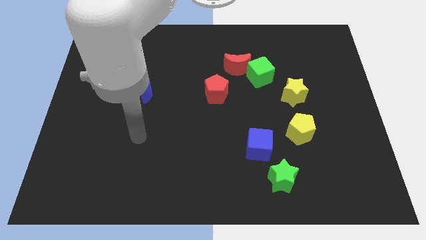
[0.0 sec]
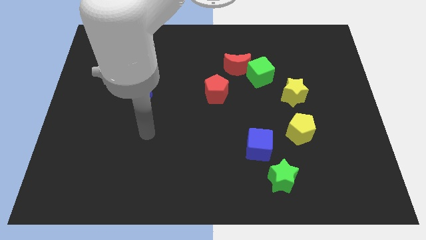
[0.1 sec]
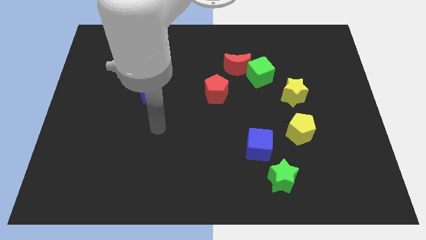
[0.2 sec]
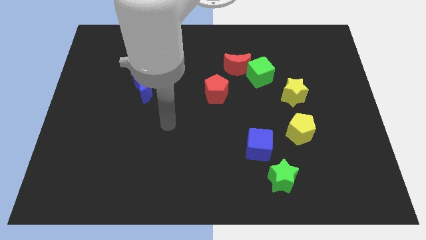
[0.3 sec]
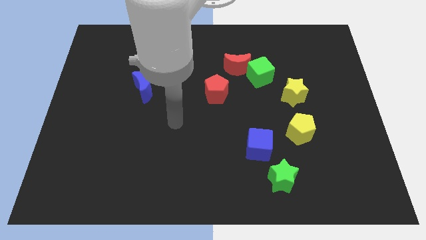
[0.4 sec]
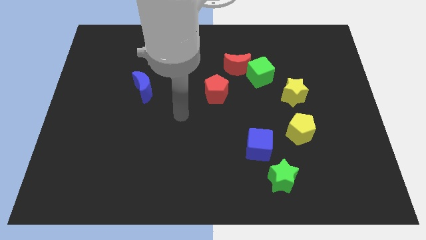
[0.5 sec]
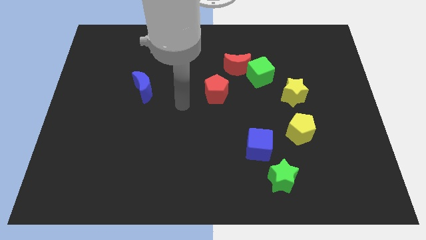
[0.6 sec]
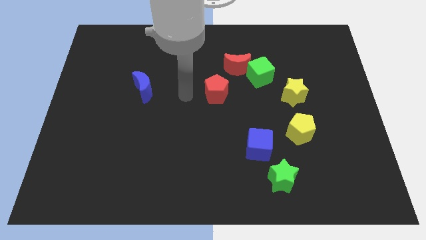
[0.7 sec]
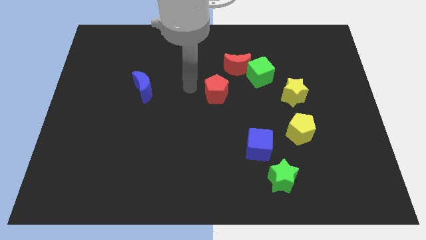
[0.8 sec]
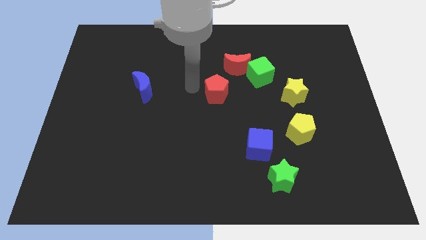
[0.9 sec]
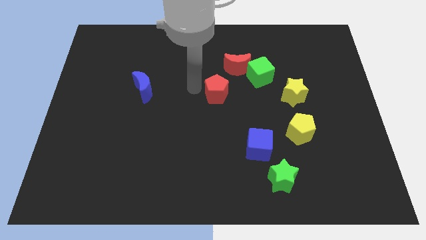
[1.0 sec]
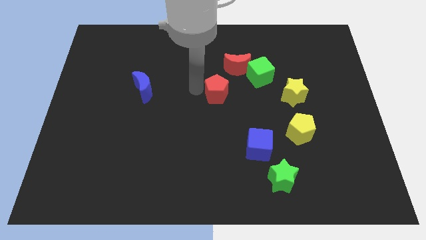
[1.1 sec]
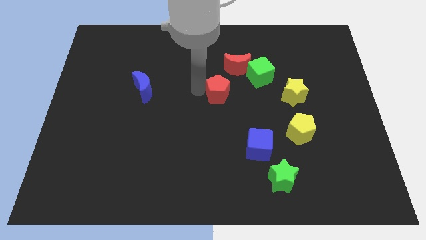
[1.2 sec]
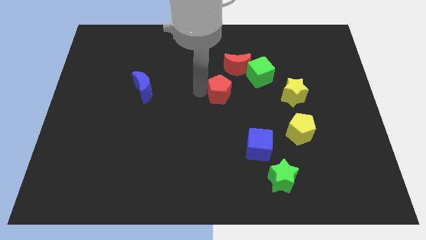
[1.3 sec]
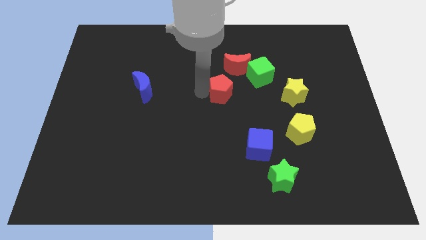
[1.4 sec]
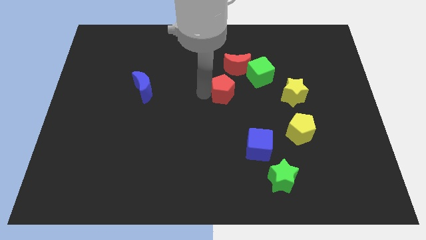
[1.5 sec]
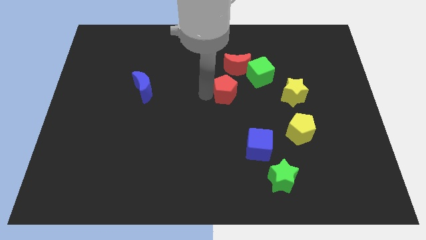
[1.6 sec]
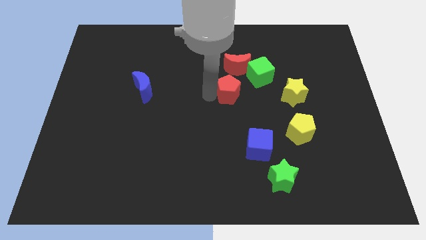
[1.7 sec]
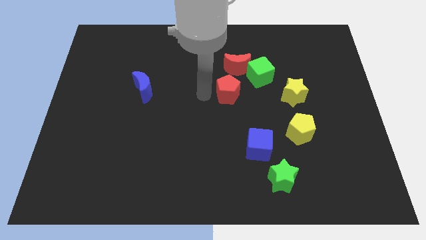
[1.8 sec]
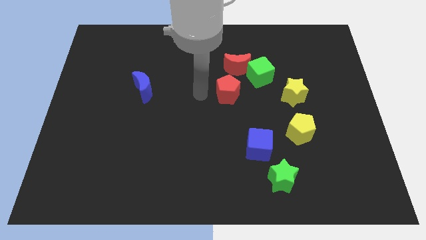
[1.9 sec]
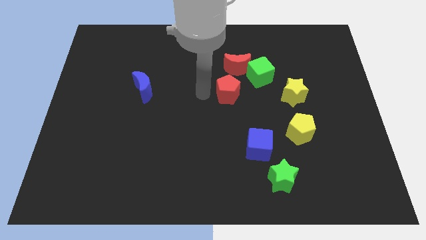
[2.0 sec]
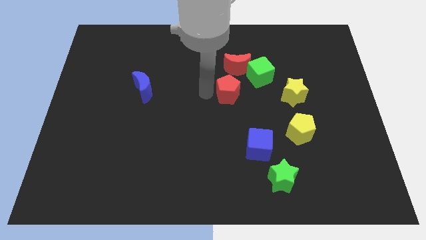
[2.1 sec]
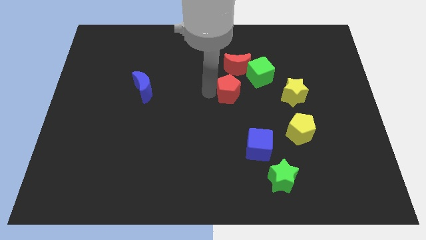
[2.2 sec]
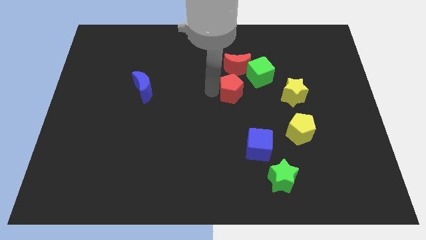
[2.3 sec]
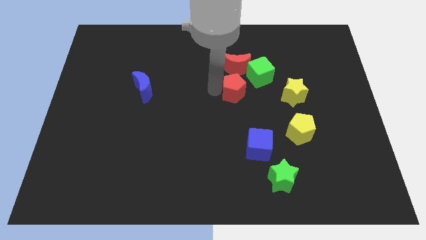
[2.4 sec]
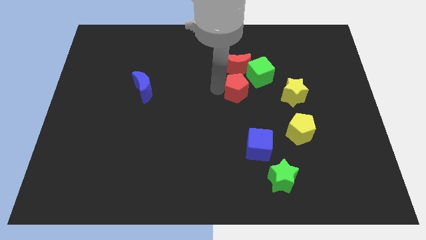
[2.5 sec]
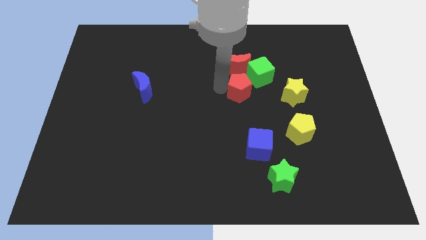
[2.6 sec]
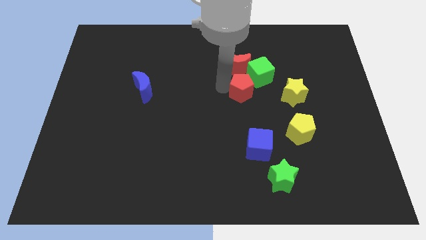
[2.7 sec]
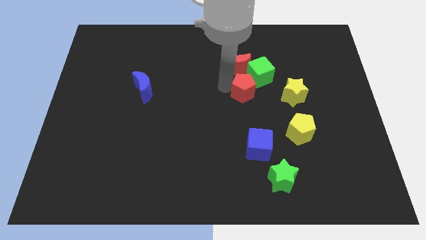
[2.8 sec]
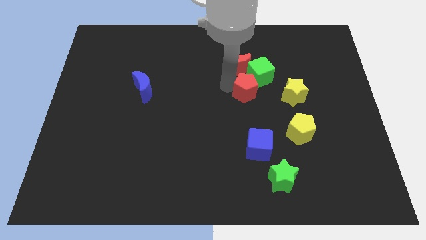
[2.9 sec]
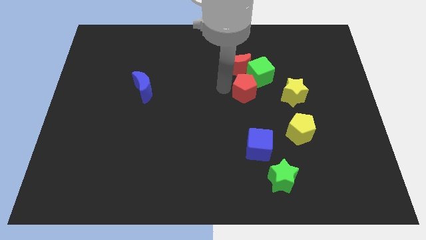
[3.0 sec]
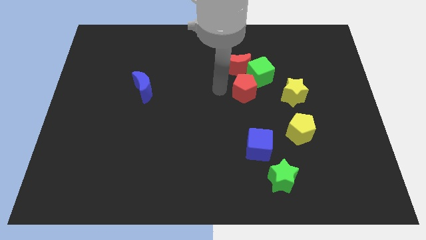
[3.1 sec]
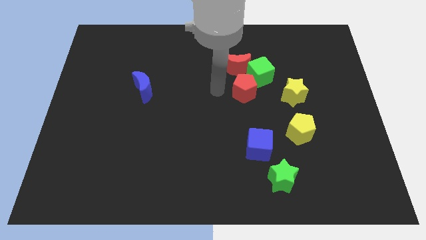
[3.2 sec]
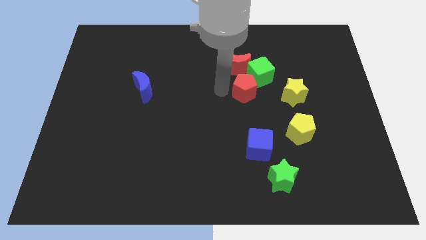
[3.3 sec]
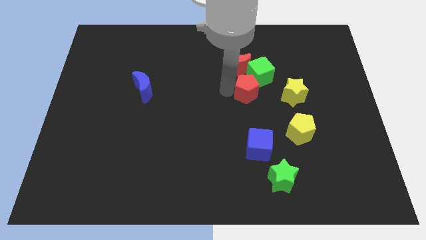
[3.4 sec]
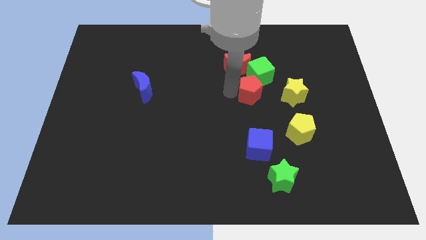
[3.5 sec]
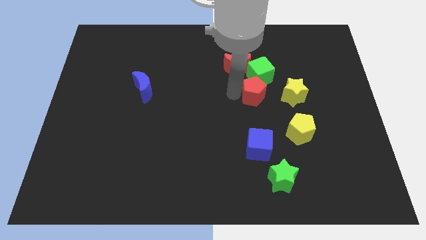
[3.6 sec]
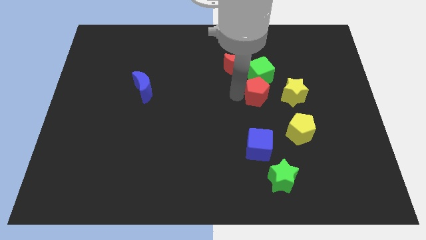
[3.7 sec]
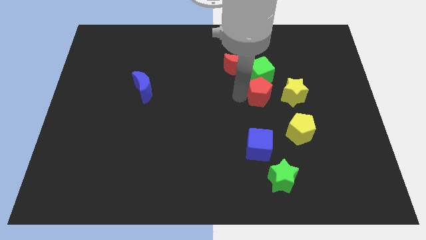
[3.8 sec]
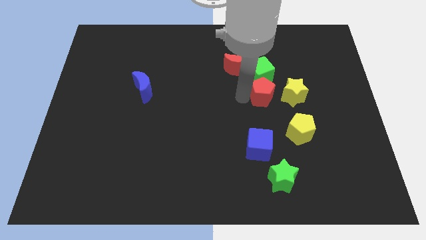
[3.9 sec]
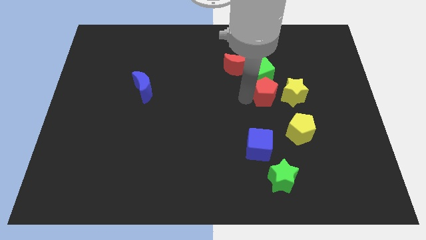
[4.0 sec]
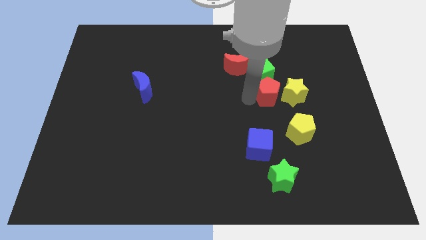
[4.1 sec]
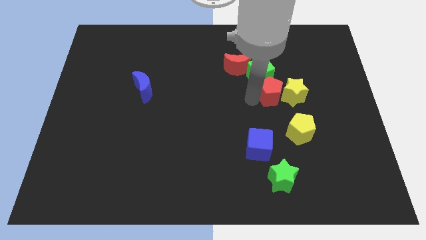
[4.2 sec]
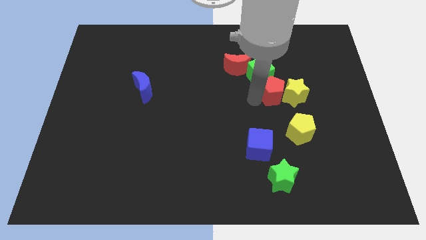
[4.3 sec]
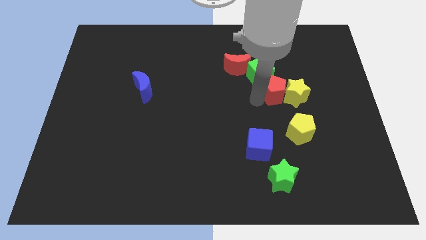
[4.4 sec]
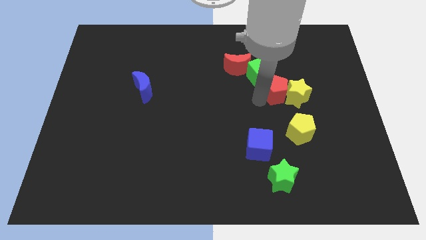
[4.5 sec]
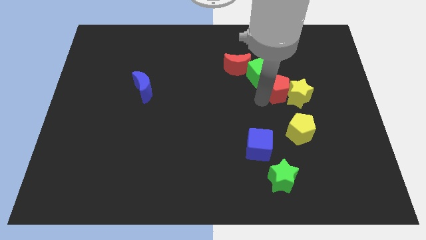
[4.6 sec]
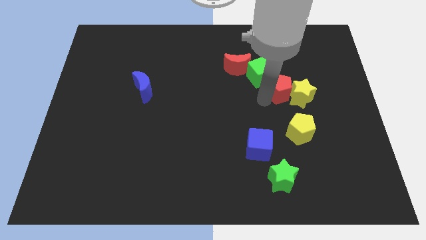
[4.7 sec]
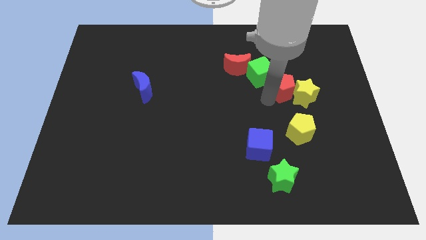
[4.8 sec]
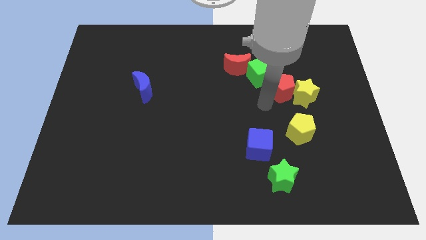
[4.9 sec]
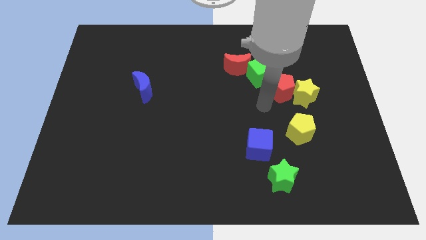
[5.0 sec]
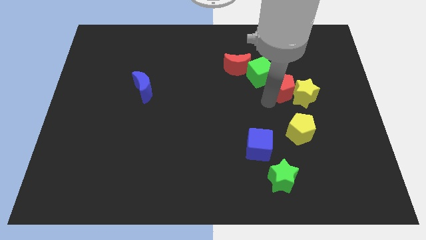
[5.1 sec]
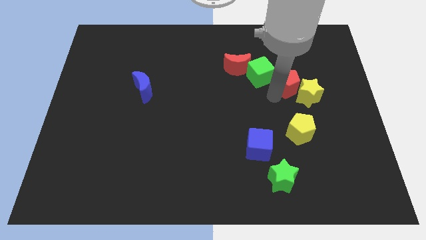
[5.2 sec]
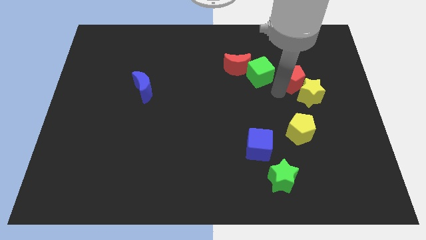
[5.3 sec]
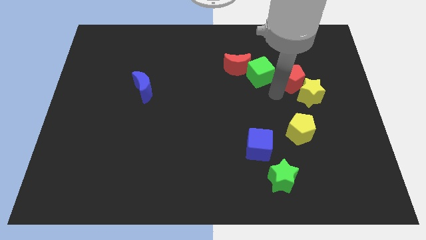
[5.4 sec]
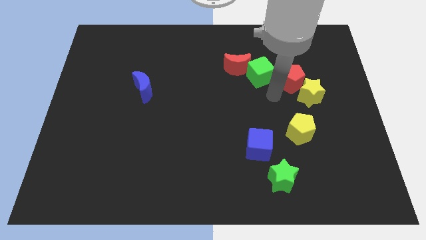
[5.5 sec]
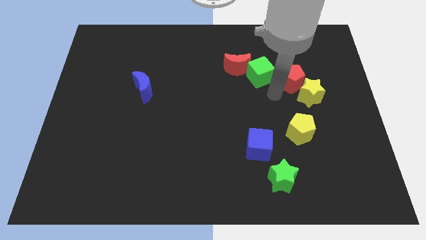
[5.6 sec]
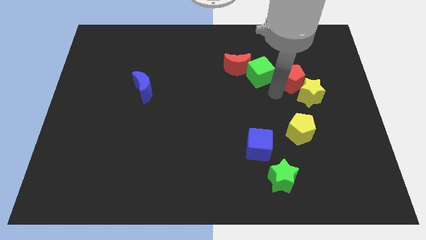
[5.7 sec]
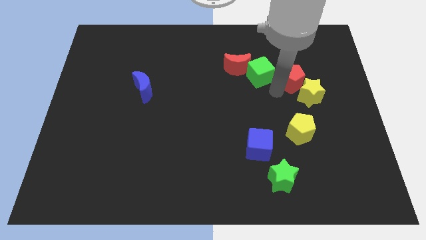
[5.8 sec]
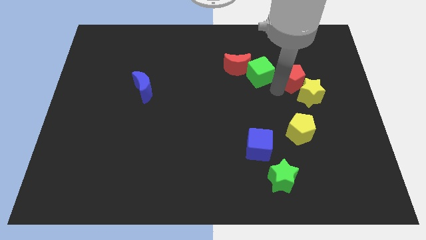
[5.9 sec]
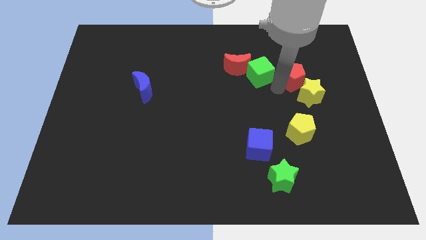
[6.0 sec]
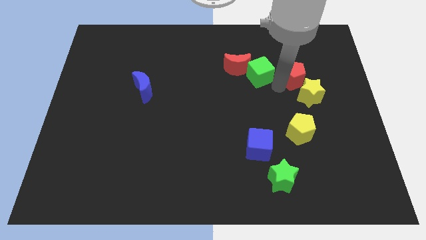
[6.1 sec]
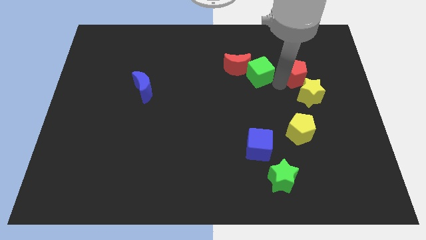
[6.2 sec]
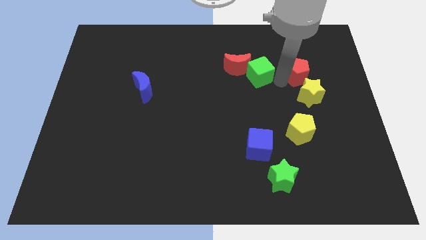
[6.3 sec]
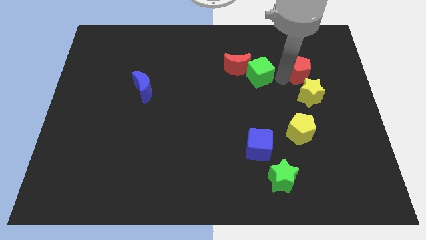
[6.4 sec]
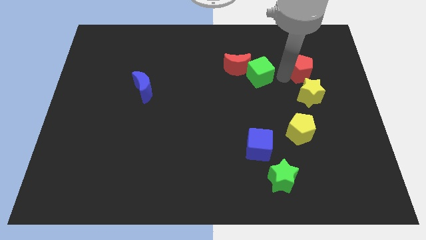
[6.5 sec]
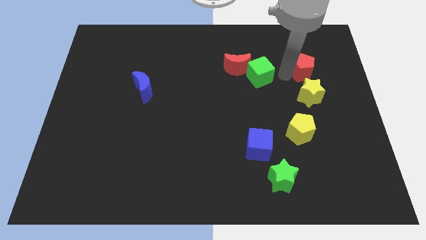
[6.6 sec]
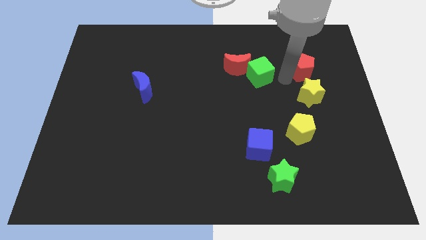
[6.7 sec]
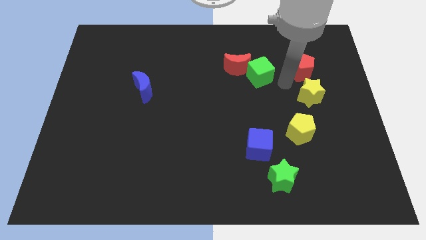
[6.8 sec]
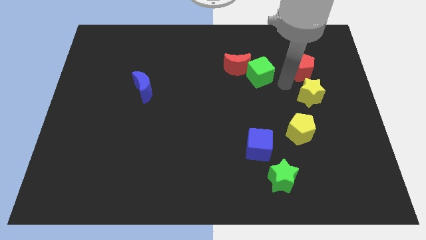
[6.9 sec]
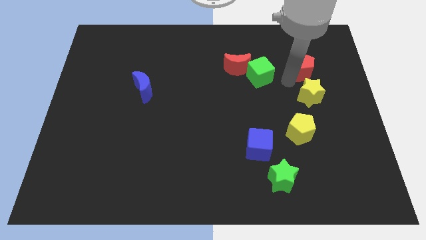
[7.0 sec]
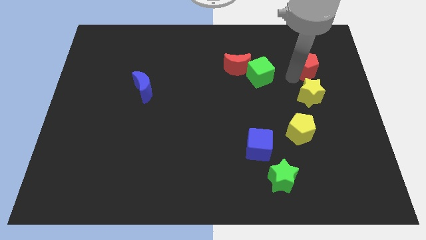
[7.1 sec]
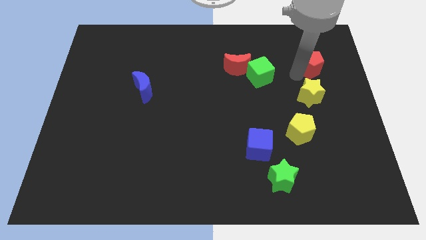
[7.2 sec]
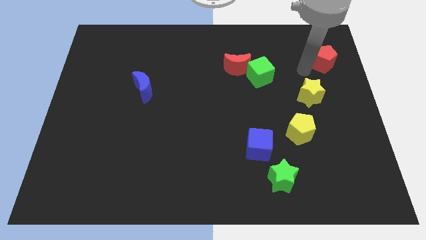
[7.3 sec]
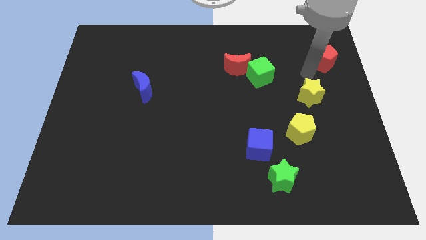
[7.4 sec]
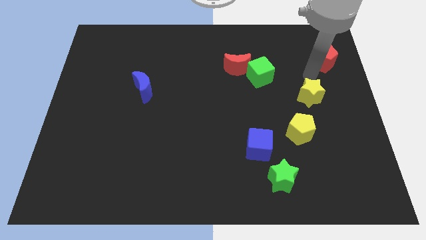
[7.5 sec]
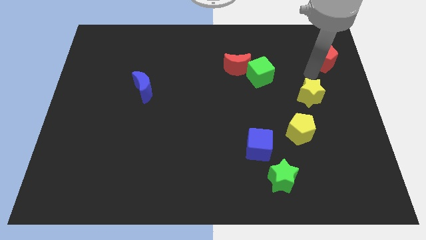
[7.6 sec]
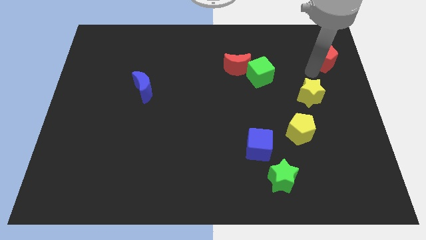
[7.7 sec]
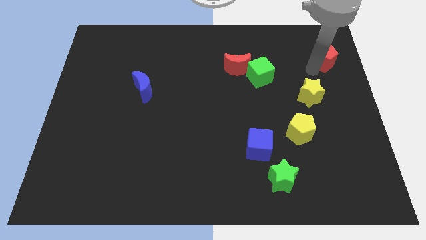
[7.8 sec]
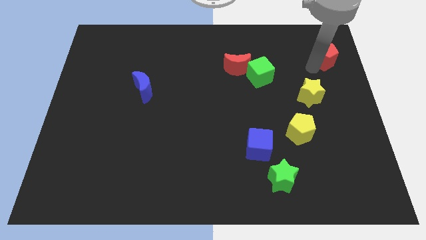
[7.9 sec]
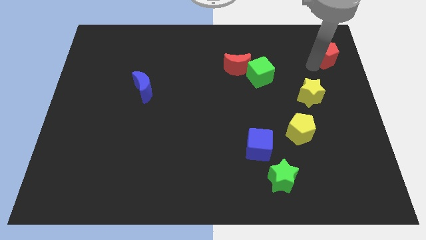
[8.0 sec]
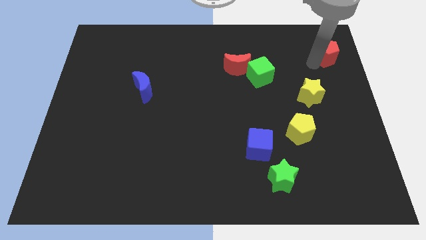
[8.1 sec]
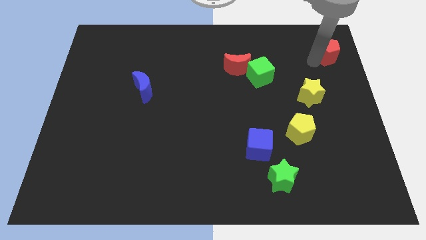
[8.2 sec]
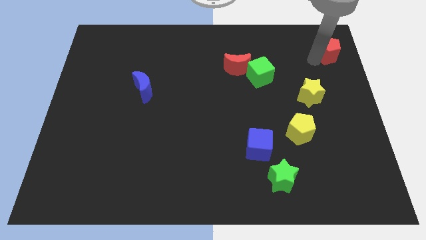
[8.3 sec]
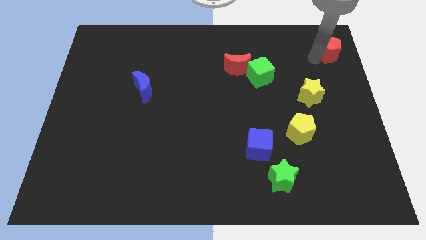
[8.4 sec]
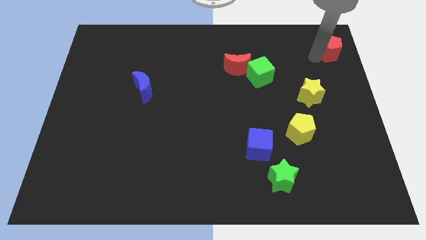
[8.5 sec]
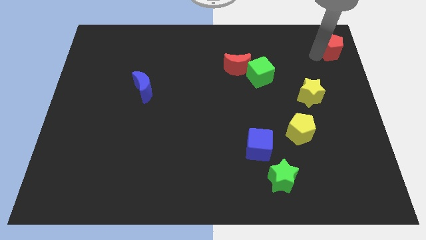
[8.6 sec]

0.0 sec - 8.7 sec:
push the red pentagon to the top right corner
